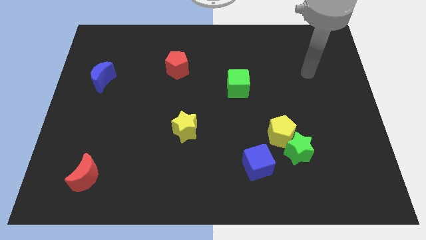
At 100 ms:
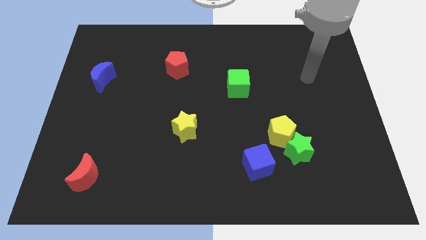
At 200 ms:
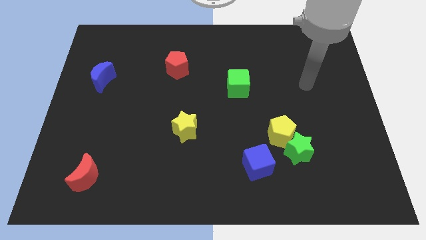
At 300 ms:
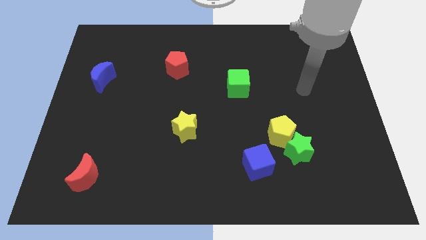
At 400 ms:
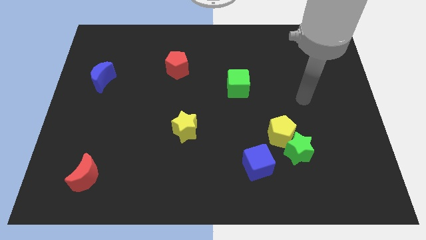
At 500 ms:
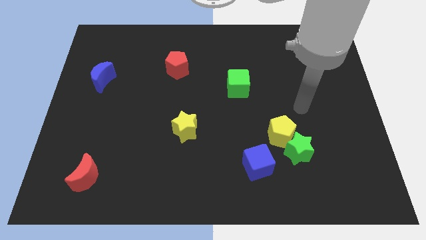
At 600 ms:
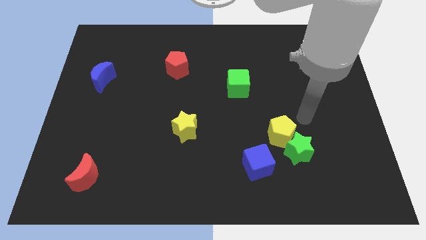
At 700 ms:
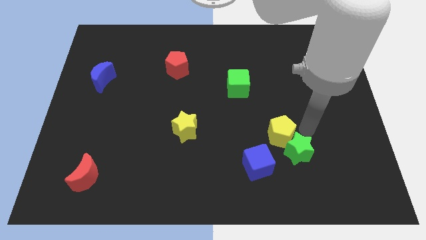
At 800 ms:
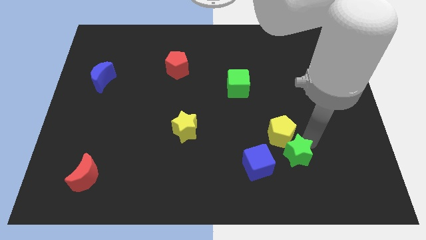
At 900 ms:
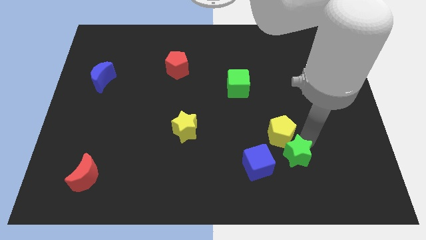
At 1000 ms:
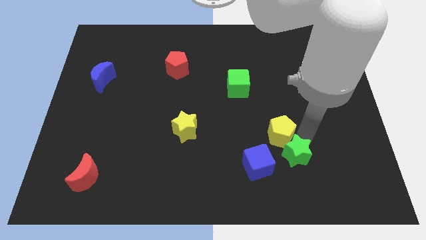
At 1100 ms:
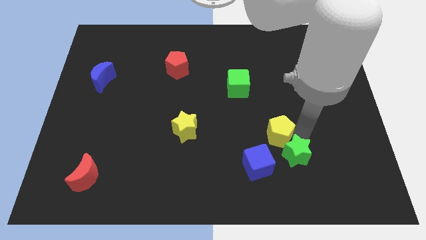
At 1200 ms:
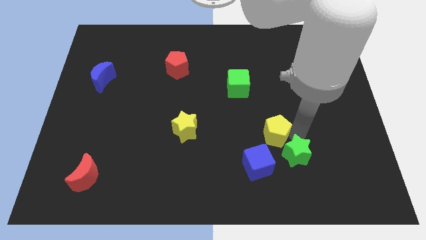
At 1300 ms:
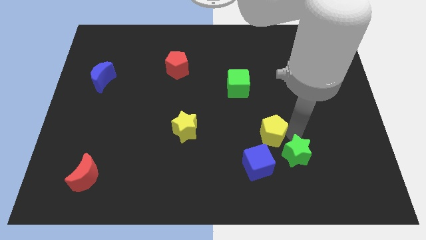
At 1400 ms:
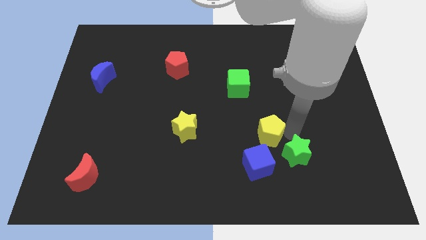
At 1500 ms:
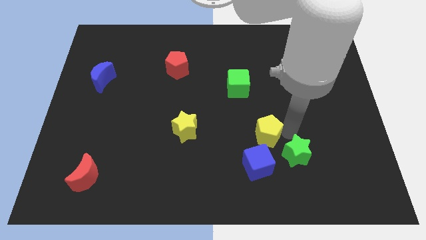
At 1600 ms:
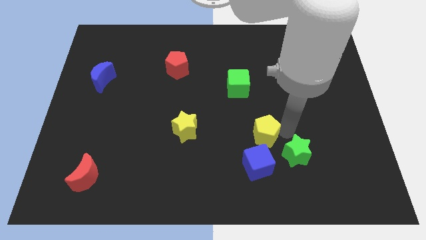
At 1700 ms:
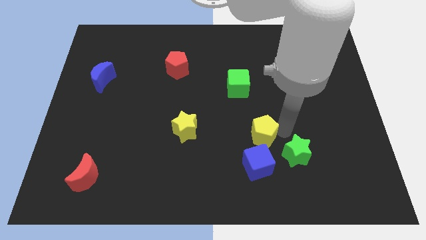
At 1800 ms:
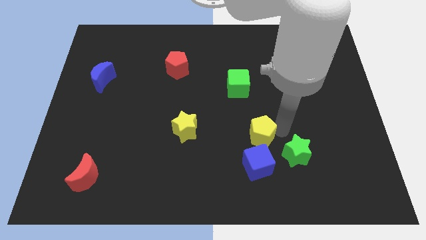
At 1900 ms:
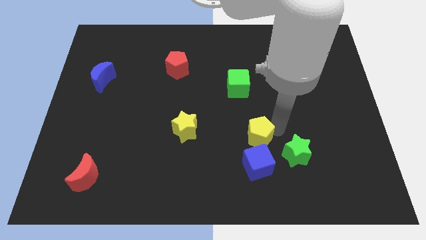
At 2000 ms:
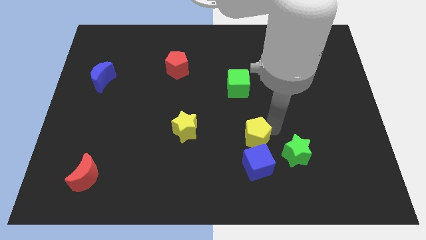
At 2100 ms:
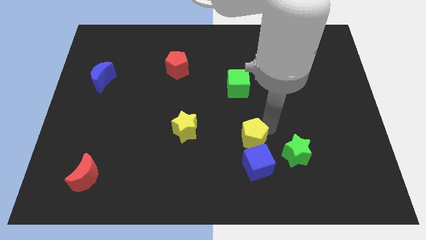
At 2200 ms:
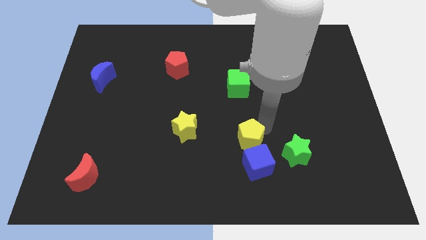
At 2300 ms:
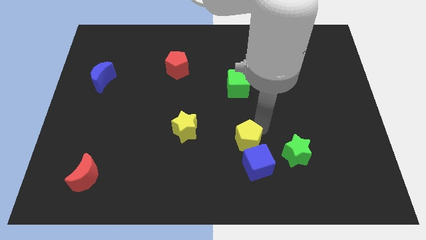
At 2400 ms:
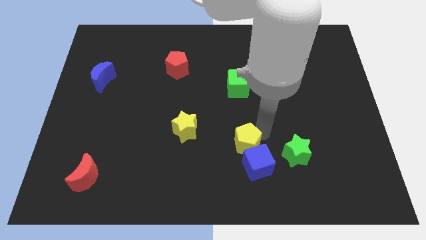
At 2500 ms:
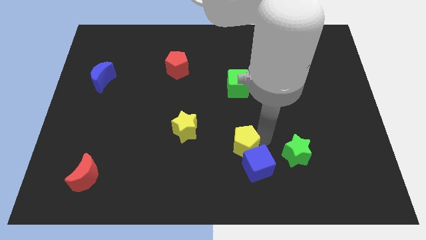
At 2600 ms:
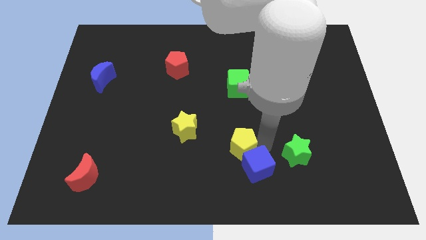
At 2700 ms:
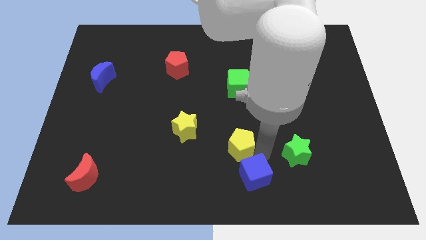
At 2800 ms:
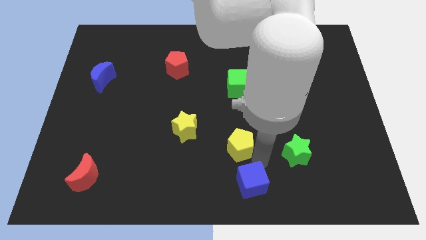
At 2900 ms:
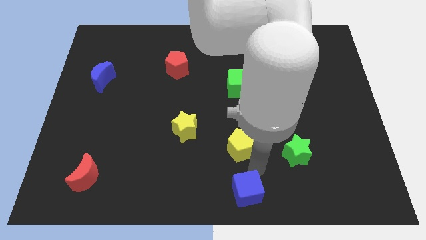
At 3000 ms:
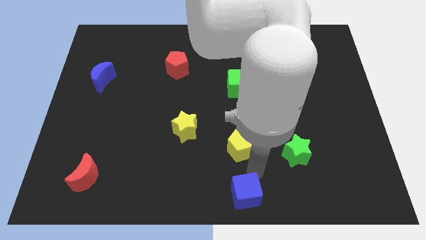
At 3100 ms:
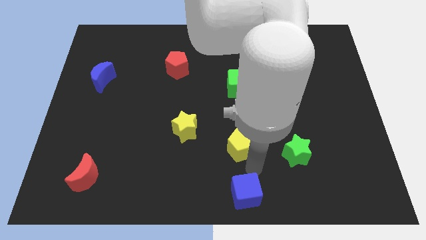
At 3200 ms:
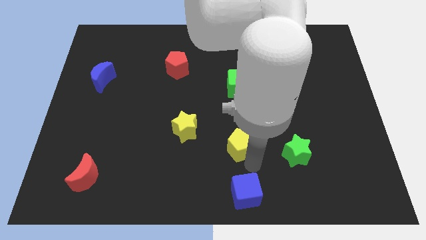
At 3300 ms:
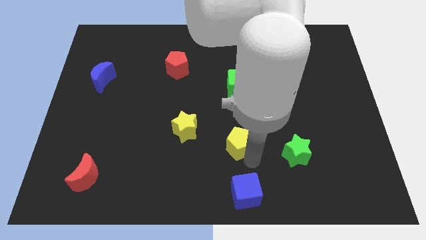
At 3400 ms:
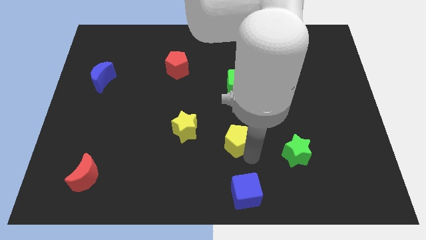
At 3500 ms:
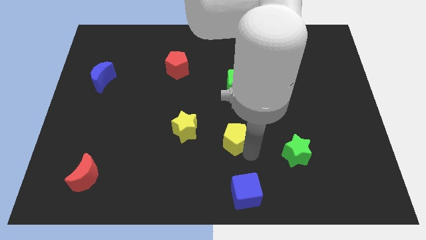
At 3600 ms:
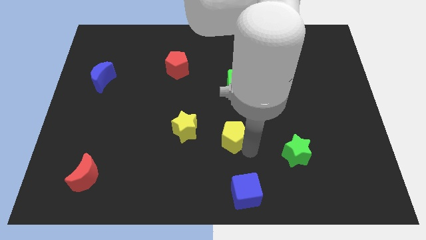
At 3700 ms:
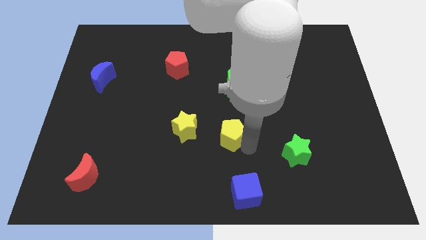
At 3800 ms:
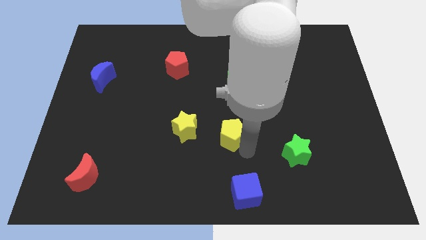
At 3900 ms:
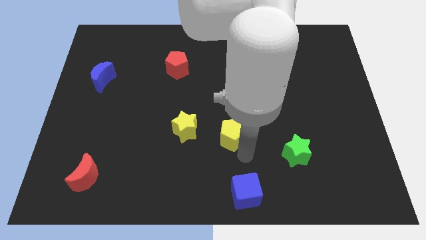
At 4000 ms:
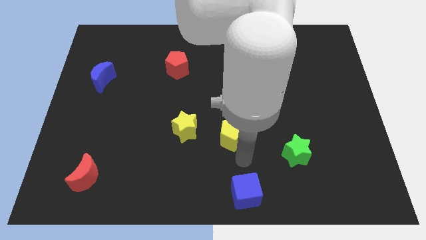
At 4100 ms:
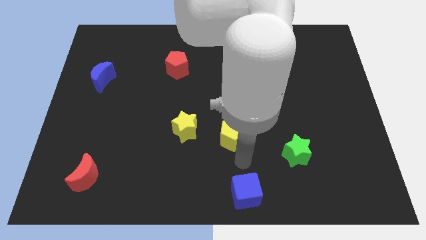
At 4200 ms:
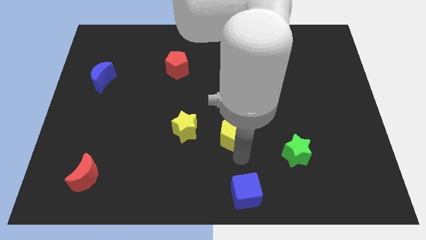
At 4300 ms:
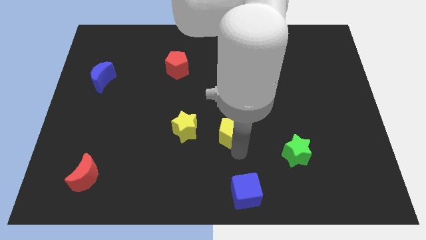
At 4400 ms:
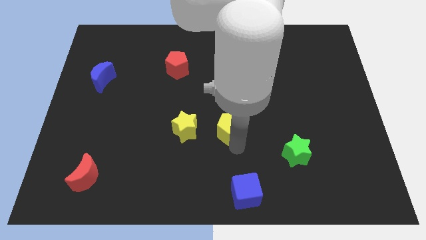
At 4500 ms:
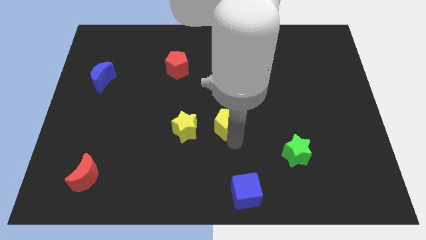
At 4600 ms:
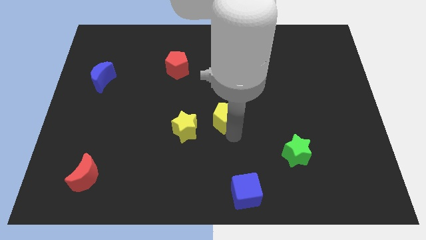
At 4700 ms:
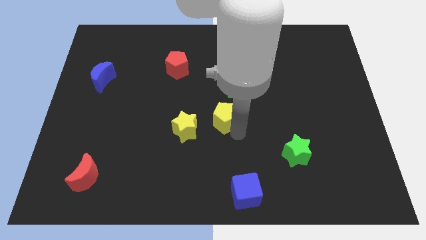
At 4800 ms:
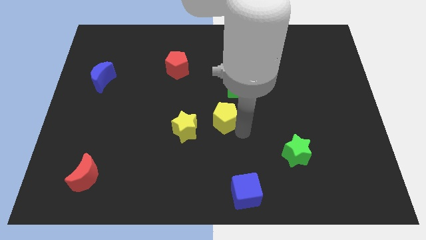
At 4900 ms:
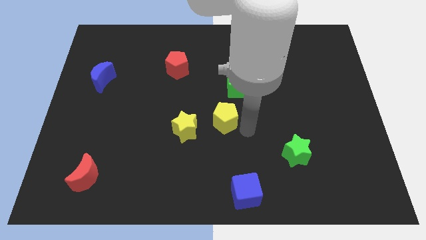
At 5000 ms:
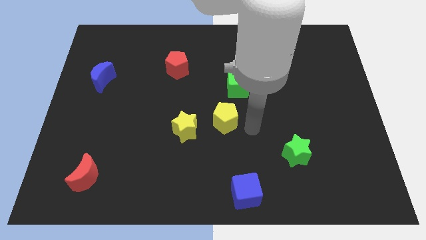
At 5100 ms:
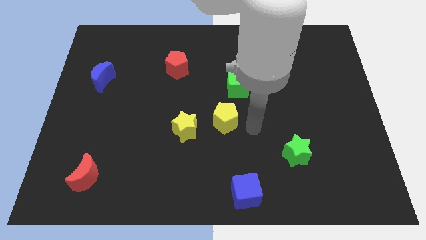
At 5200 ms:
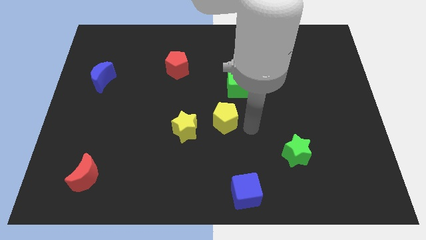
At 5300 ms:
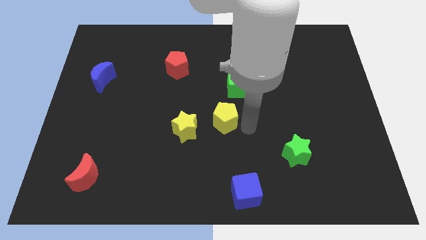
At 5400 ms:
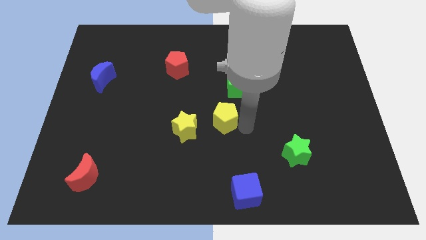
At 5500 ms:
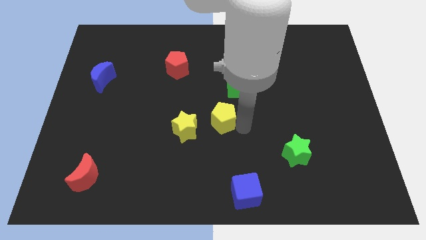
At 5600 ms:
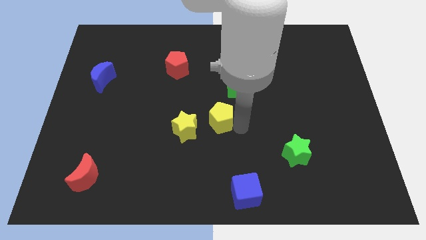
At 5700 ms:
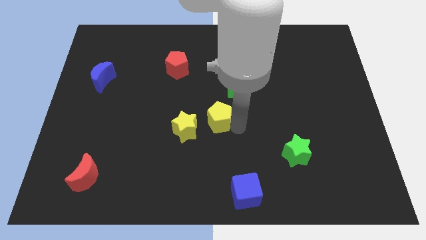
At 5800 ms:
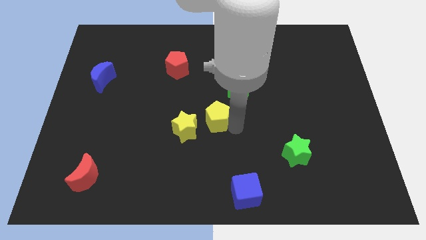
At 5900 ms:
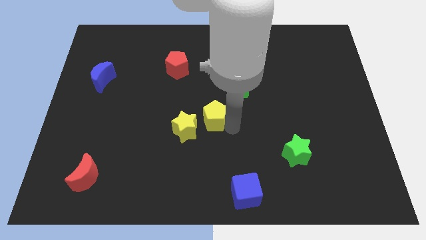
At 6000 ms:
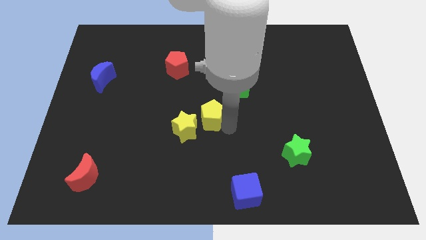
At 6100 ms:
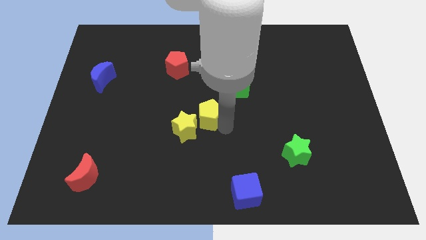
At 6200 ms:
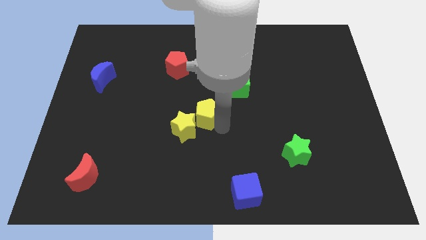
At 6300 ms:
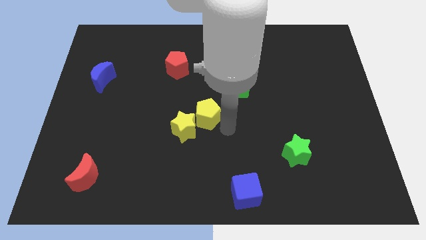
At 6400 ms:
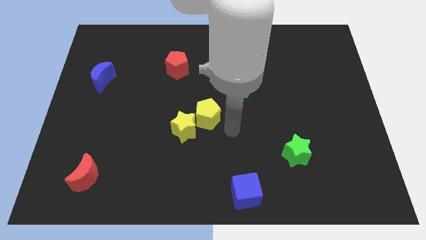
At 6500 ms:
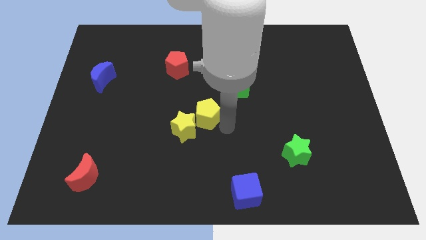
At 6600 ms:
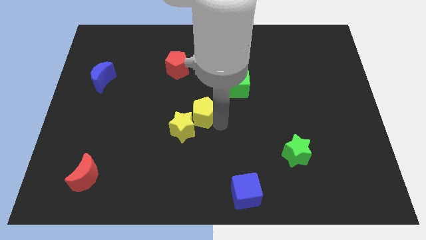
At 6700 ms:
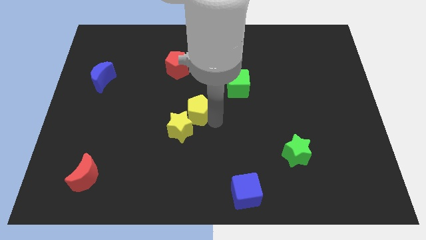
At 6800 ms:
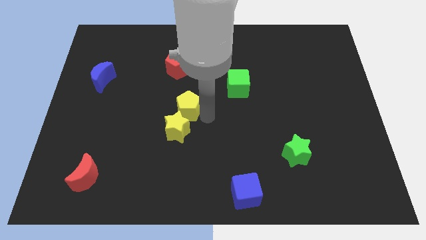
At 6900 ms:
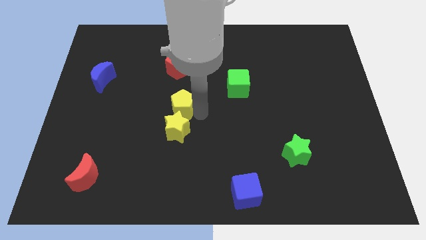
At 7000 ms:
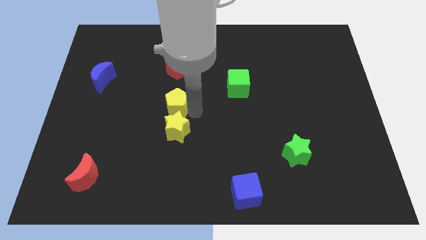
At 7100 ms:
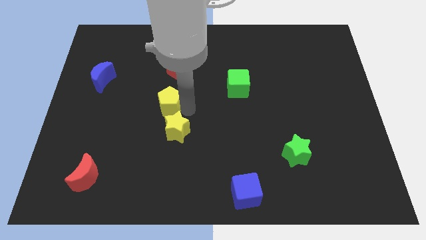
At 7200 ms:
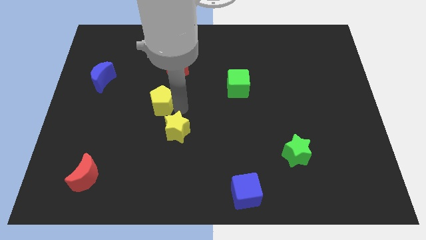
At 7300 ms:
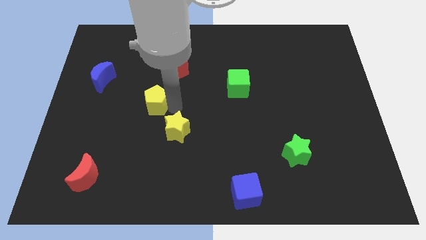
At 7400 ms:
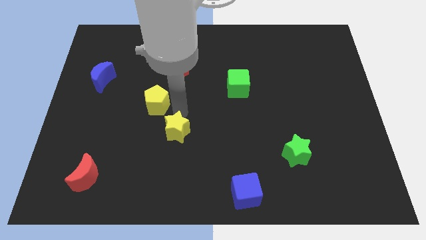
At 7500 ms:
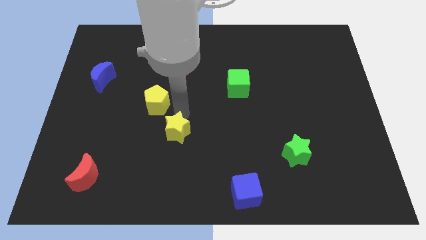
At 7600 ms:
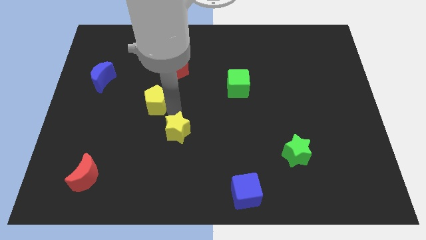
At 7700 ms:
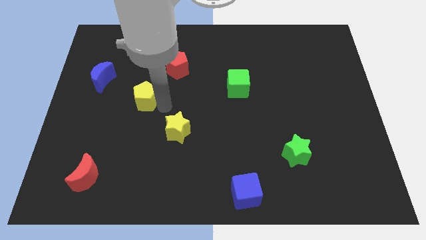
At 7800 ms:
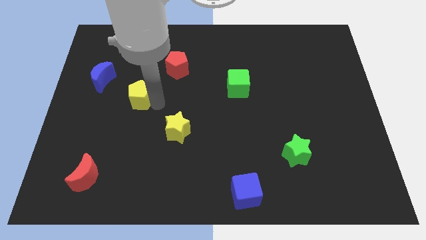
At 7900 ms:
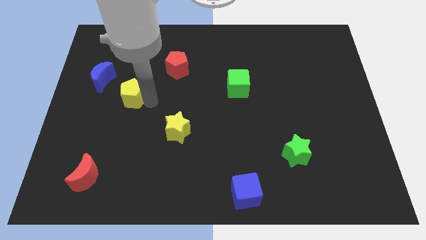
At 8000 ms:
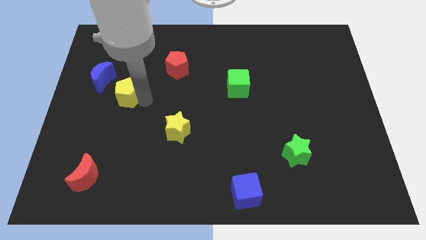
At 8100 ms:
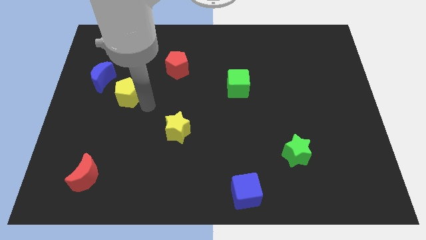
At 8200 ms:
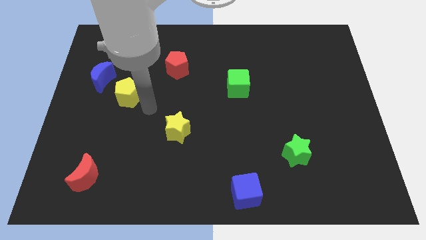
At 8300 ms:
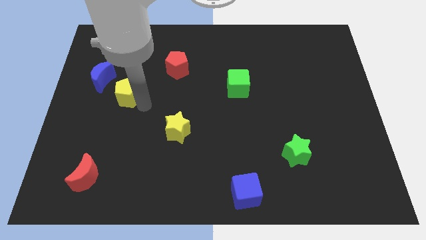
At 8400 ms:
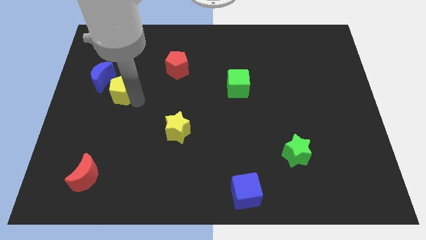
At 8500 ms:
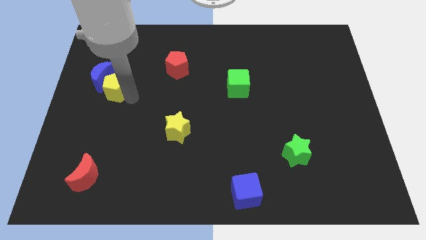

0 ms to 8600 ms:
push the yellow pentagon towards the blue moon

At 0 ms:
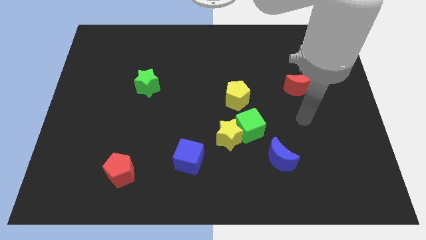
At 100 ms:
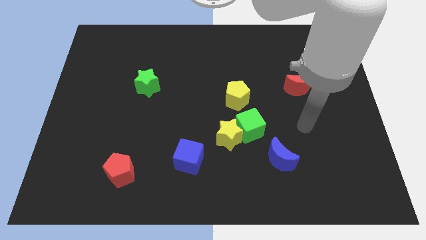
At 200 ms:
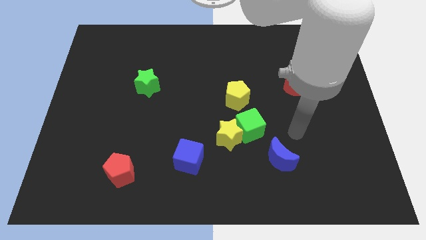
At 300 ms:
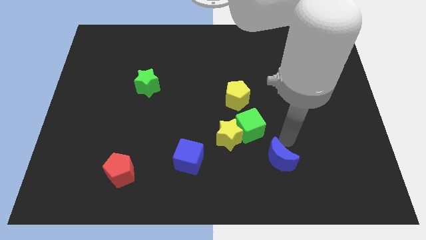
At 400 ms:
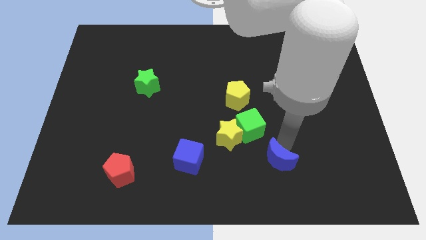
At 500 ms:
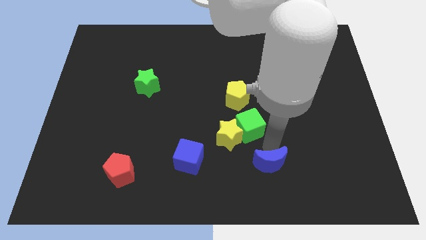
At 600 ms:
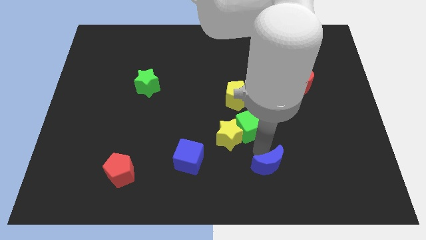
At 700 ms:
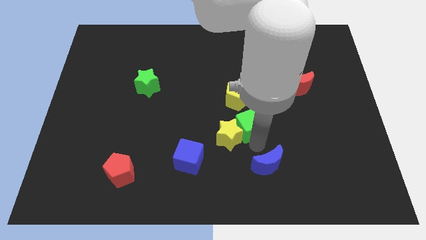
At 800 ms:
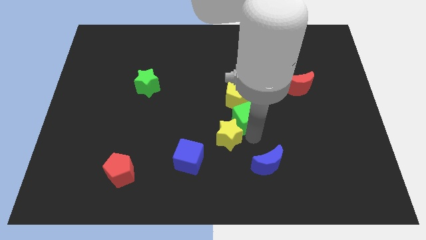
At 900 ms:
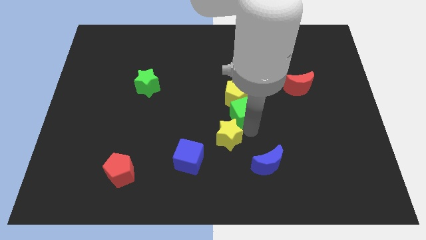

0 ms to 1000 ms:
push the green cube to the yellow pentagon
